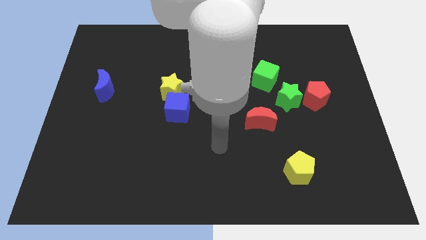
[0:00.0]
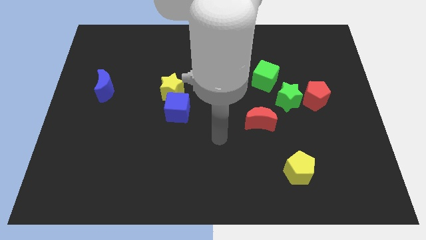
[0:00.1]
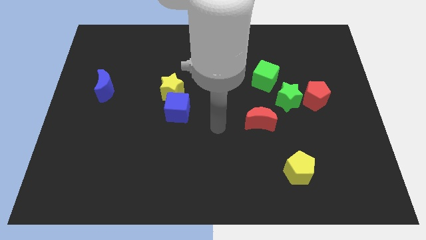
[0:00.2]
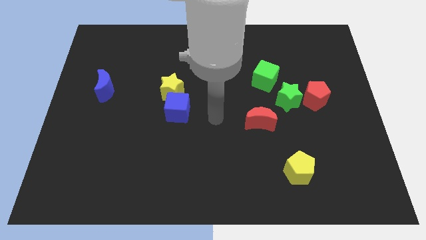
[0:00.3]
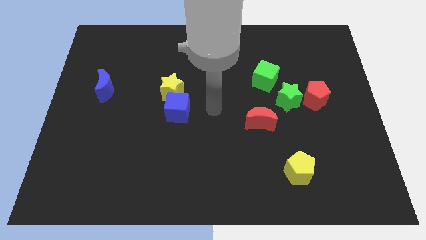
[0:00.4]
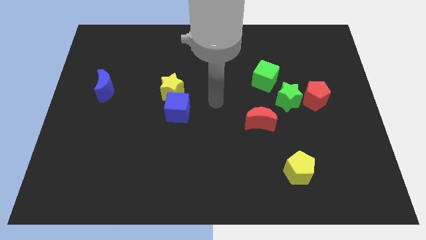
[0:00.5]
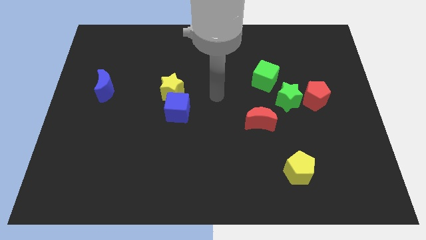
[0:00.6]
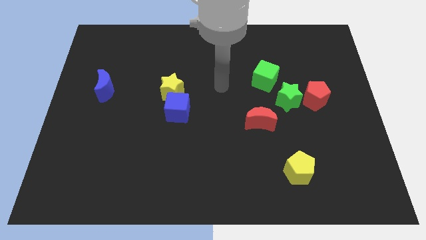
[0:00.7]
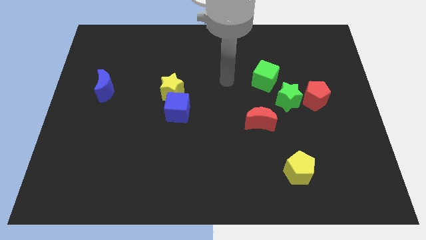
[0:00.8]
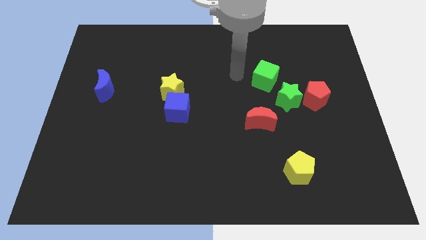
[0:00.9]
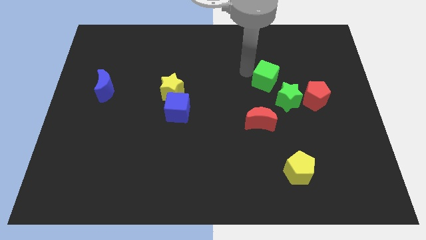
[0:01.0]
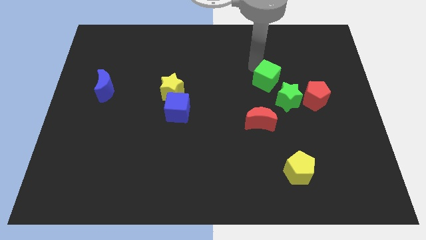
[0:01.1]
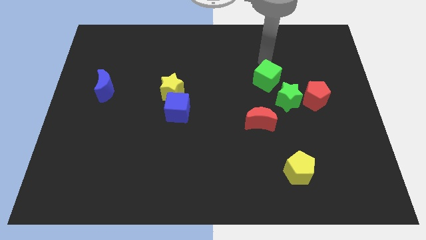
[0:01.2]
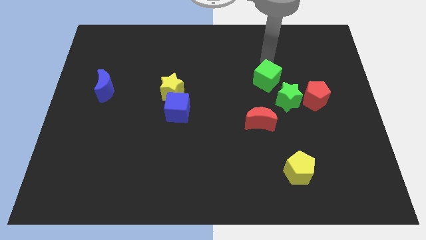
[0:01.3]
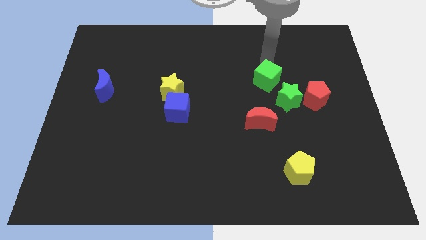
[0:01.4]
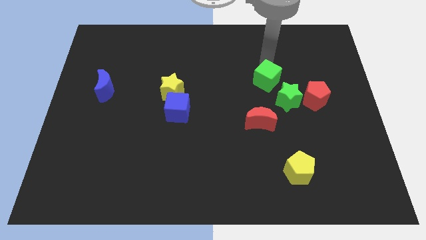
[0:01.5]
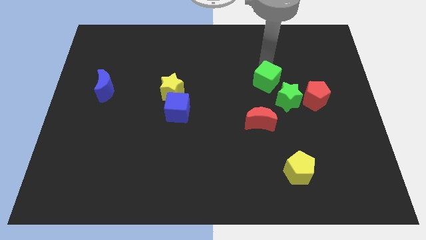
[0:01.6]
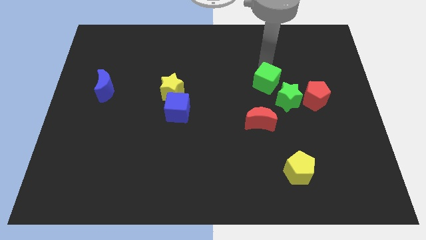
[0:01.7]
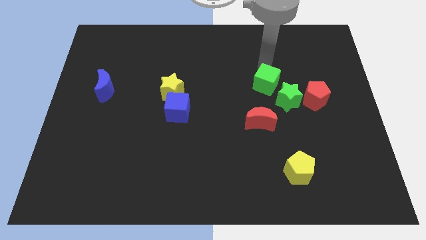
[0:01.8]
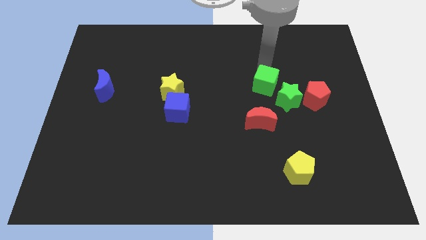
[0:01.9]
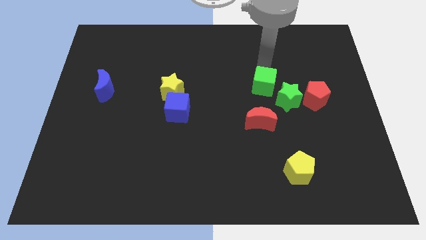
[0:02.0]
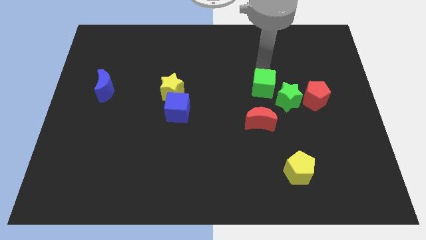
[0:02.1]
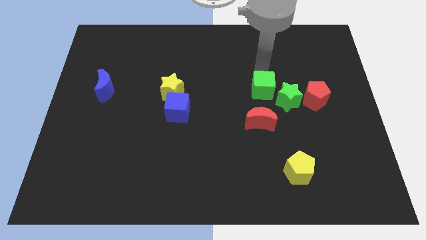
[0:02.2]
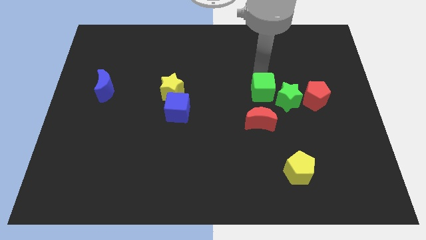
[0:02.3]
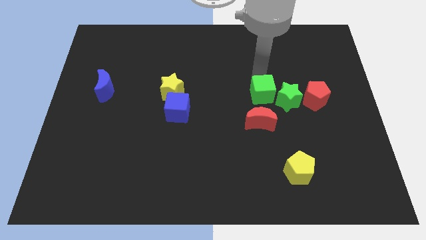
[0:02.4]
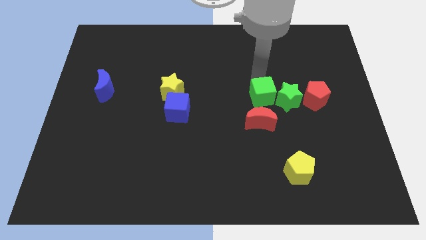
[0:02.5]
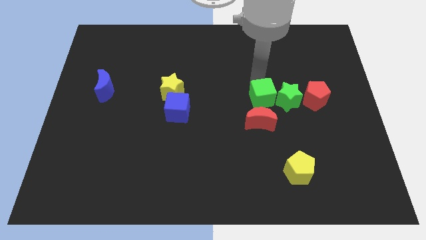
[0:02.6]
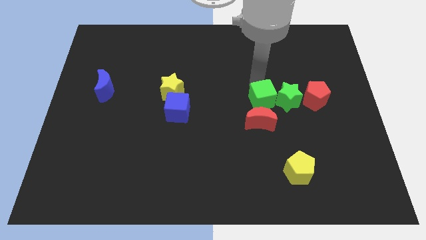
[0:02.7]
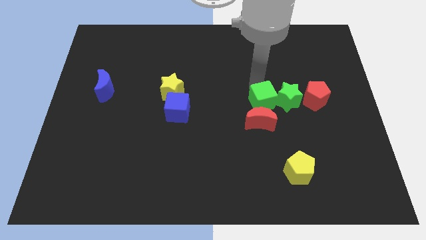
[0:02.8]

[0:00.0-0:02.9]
slightly push the green cube down

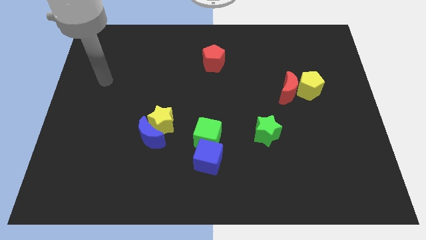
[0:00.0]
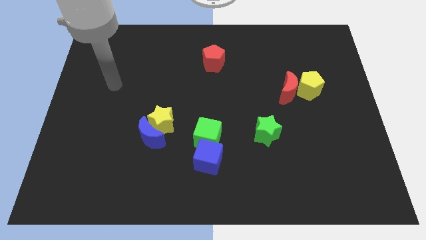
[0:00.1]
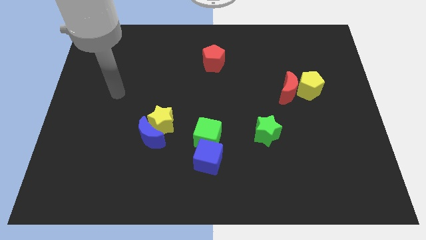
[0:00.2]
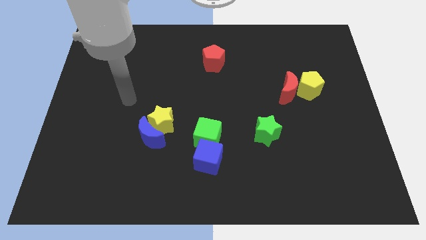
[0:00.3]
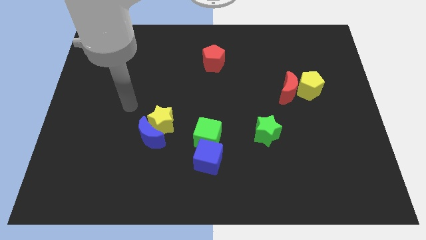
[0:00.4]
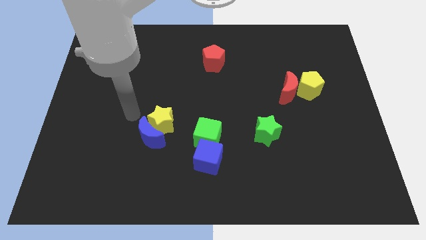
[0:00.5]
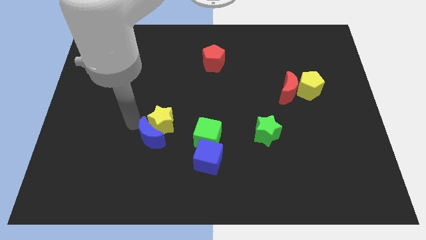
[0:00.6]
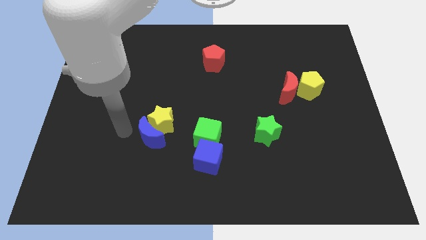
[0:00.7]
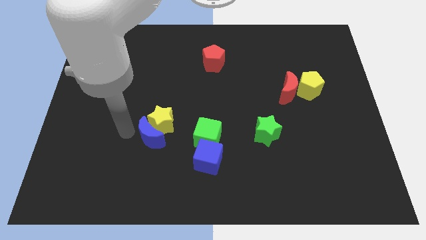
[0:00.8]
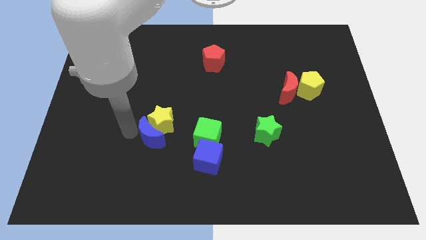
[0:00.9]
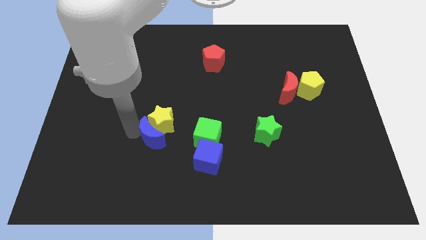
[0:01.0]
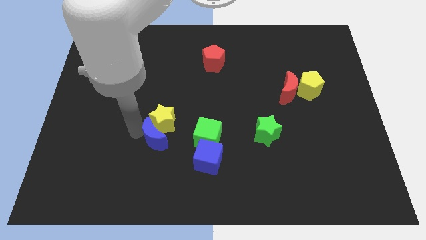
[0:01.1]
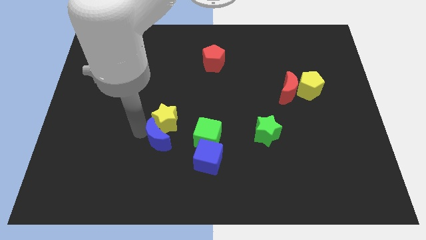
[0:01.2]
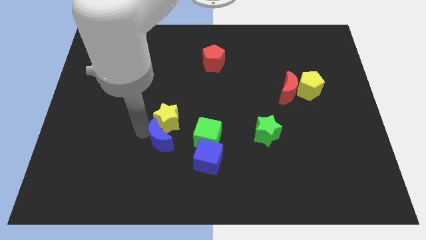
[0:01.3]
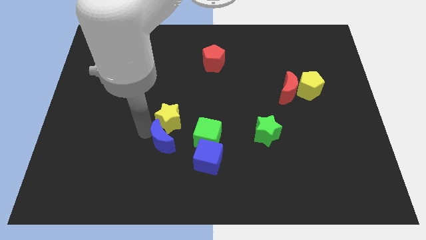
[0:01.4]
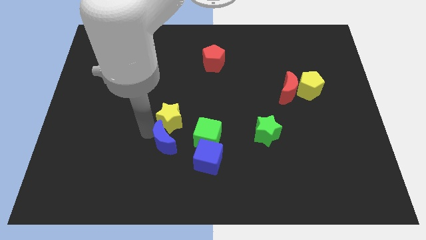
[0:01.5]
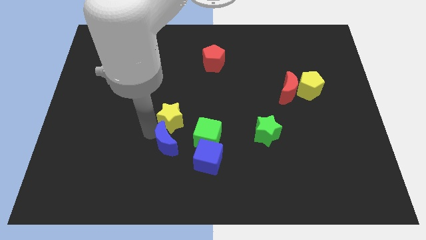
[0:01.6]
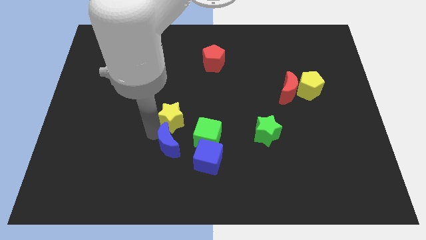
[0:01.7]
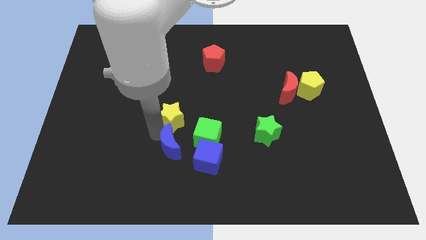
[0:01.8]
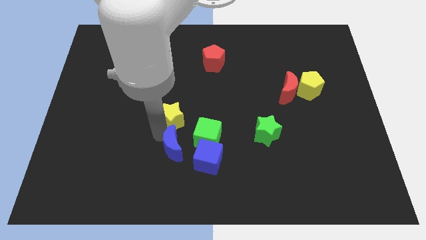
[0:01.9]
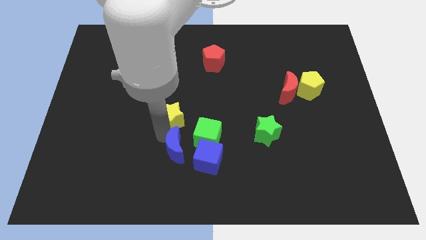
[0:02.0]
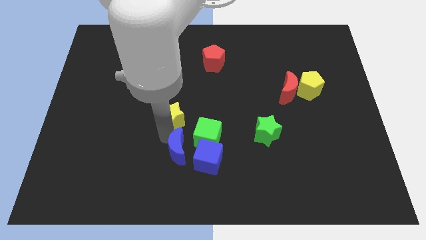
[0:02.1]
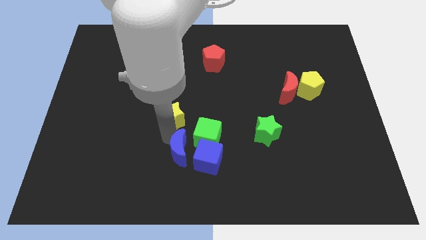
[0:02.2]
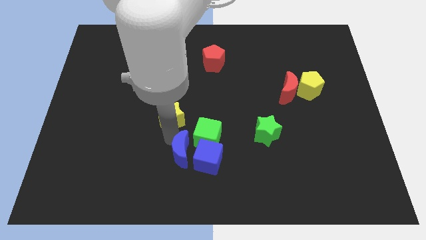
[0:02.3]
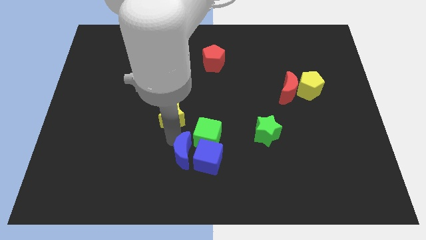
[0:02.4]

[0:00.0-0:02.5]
move the blue moon to the right somewhat

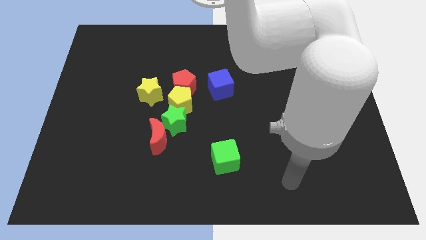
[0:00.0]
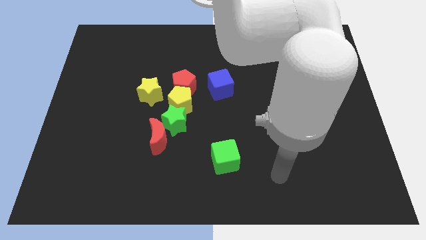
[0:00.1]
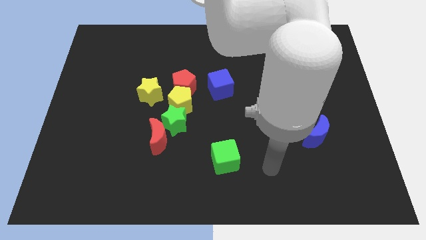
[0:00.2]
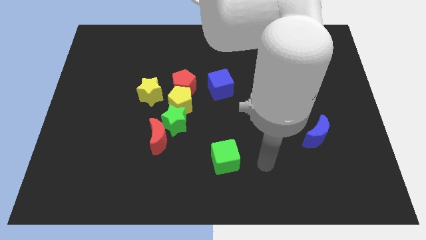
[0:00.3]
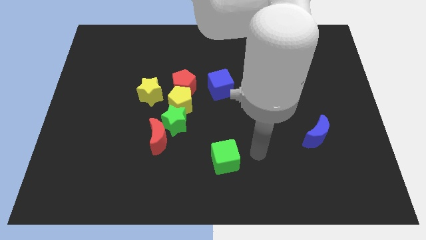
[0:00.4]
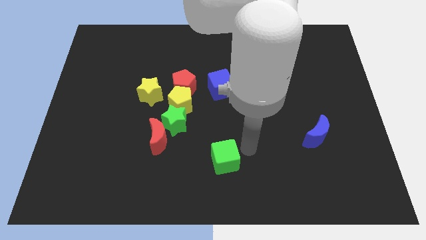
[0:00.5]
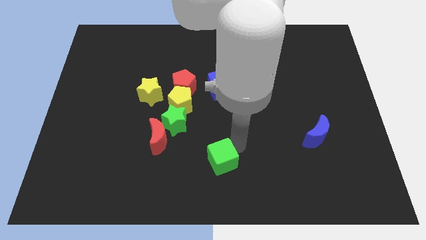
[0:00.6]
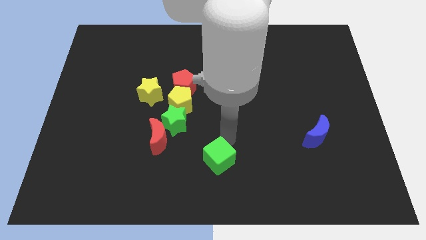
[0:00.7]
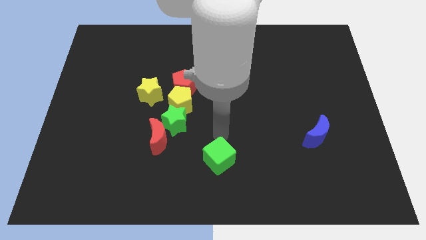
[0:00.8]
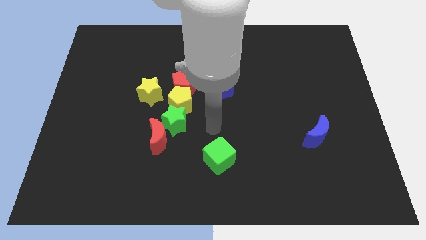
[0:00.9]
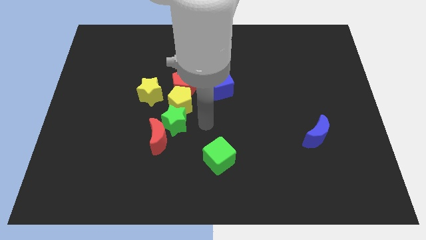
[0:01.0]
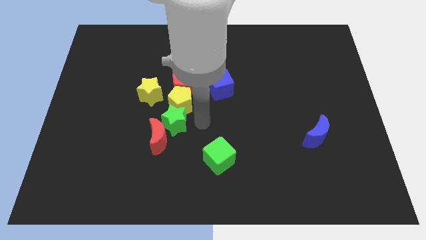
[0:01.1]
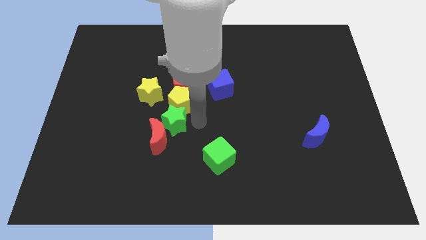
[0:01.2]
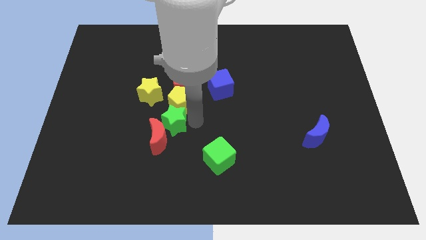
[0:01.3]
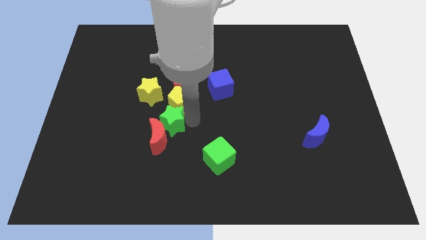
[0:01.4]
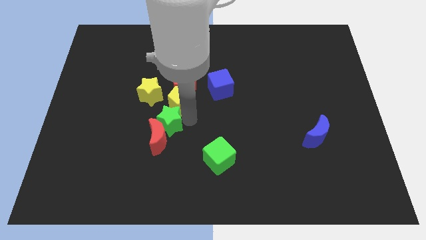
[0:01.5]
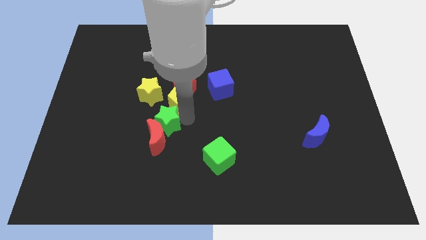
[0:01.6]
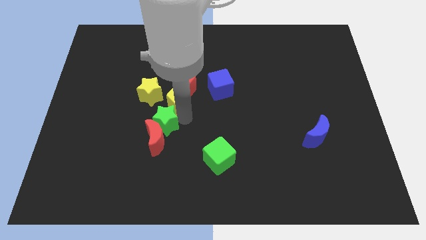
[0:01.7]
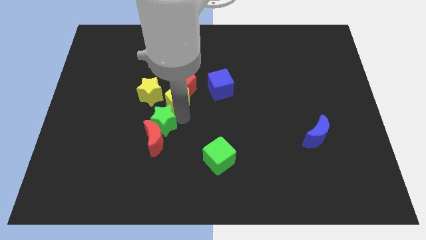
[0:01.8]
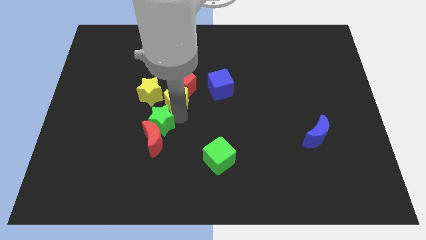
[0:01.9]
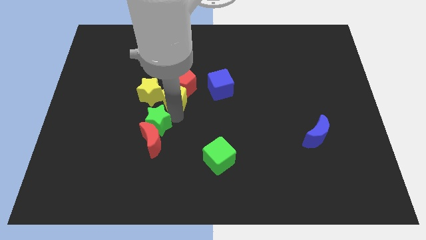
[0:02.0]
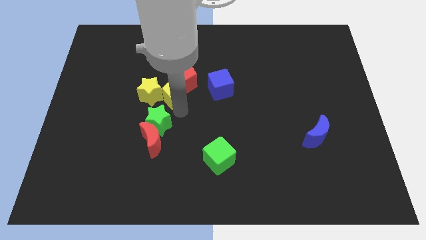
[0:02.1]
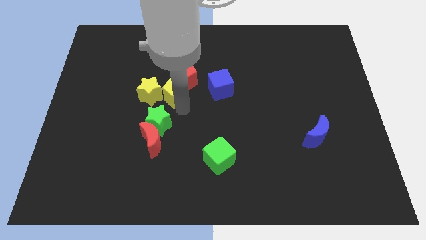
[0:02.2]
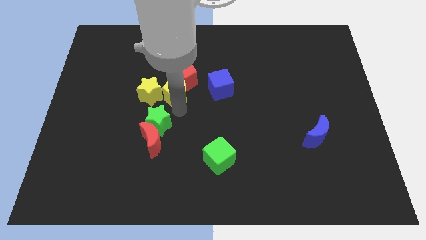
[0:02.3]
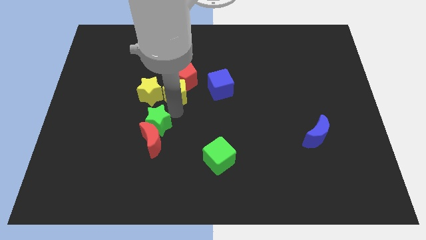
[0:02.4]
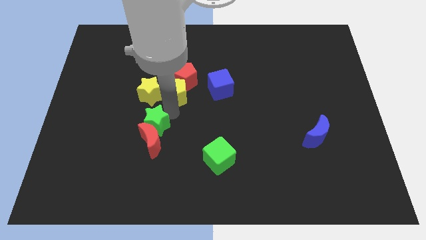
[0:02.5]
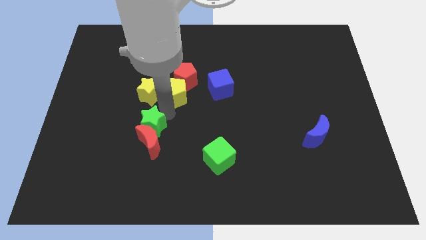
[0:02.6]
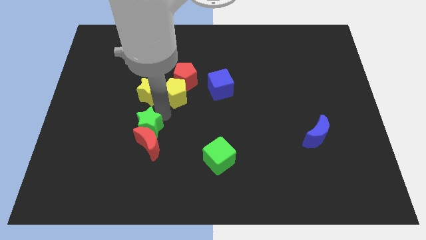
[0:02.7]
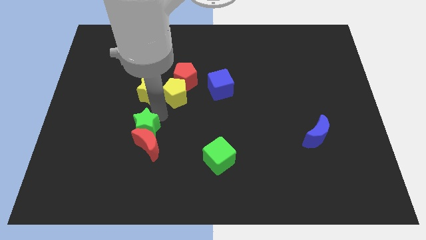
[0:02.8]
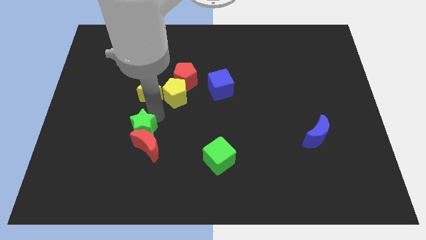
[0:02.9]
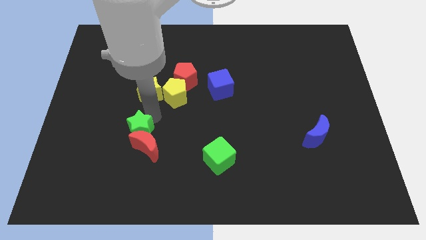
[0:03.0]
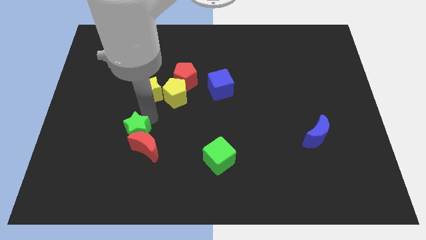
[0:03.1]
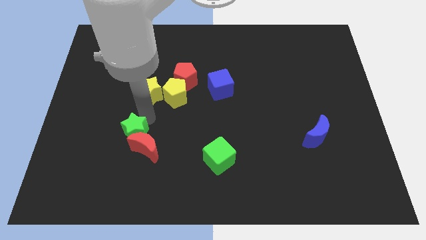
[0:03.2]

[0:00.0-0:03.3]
slide the green star down and left a little
